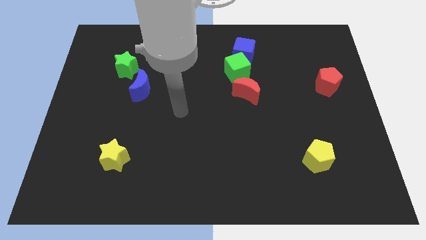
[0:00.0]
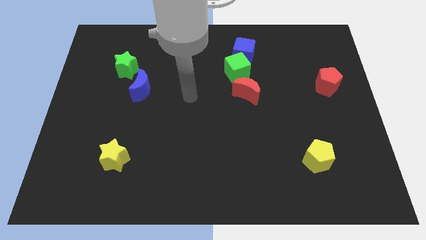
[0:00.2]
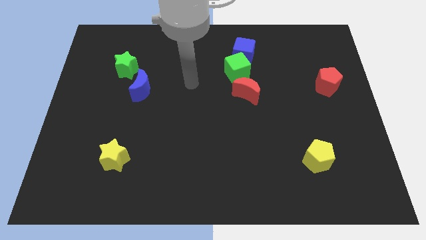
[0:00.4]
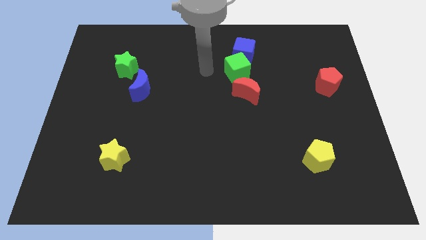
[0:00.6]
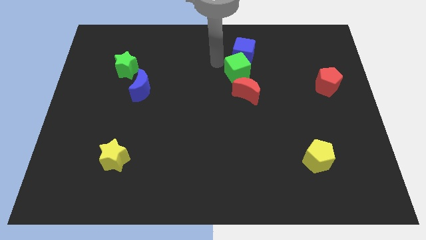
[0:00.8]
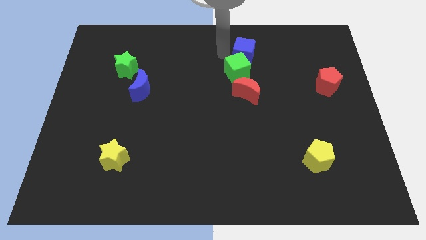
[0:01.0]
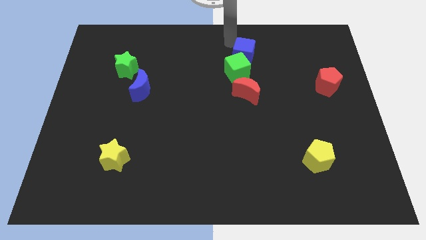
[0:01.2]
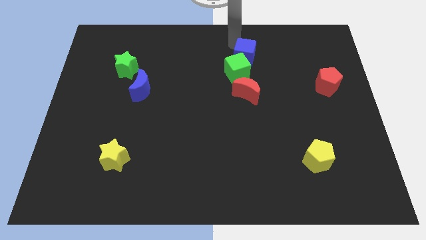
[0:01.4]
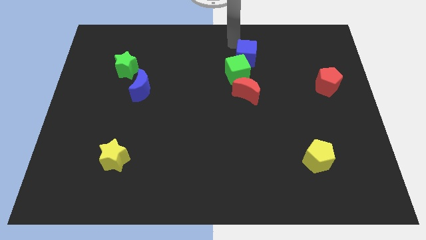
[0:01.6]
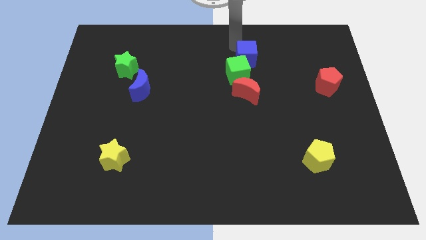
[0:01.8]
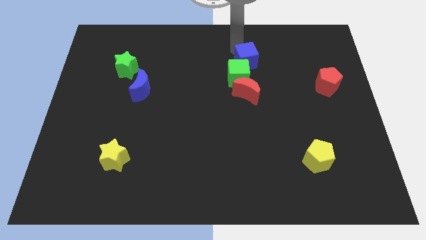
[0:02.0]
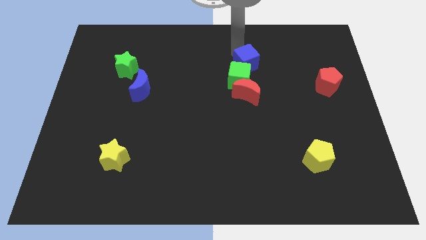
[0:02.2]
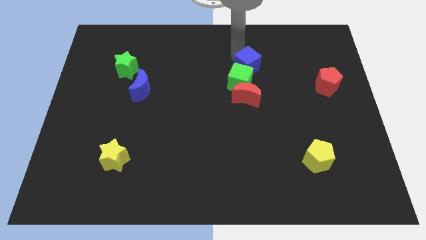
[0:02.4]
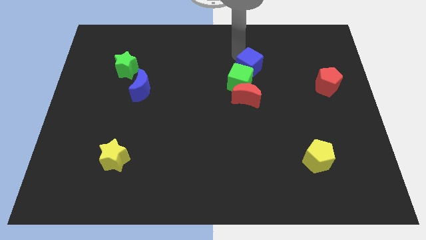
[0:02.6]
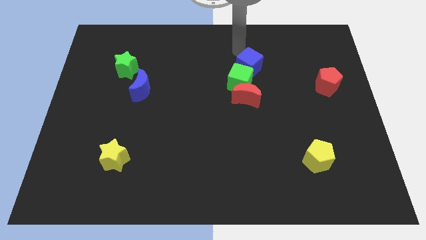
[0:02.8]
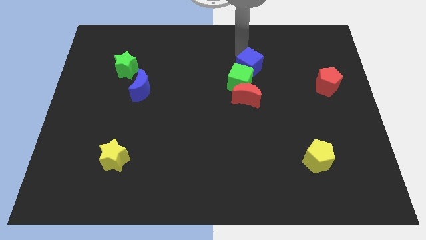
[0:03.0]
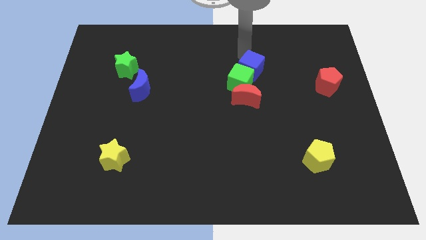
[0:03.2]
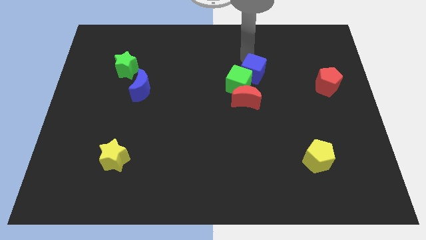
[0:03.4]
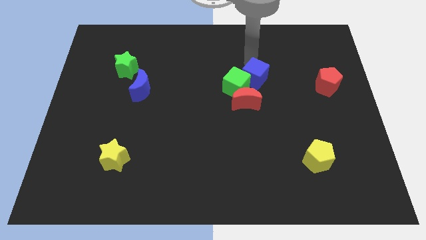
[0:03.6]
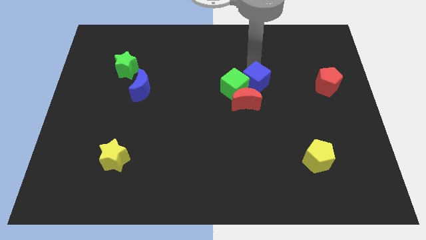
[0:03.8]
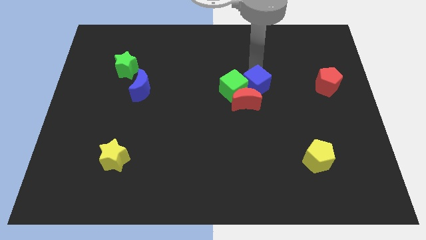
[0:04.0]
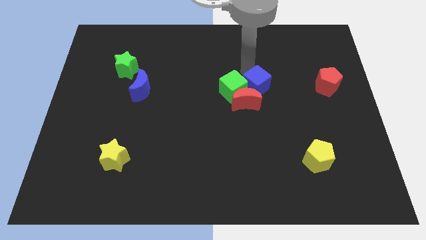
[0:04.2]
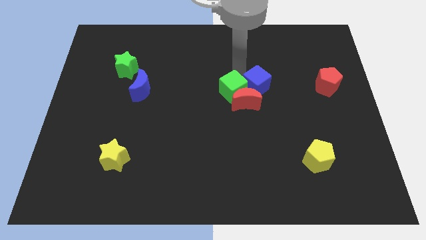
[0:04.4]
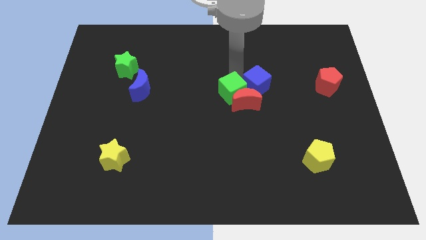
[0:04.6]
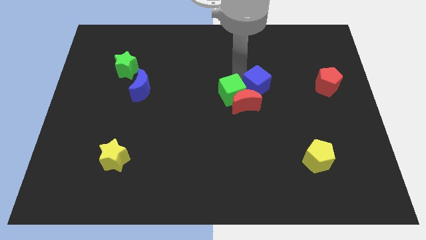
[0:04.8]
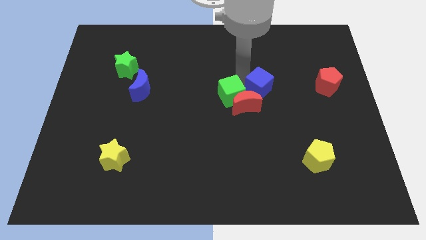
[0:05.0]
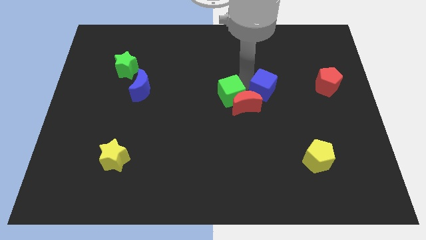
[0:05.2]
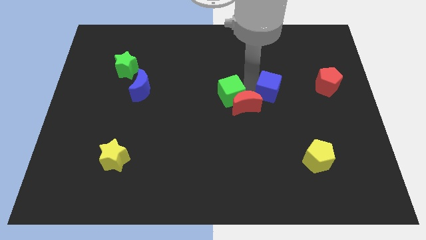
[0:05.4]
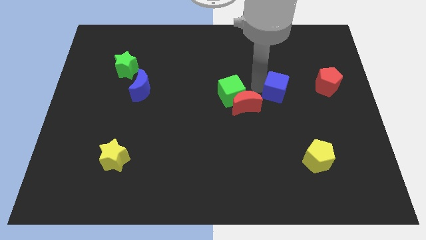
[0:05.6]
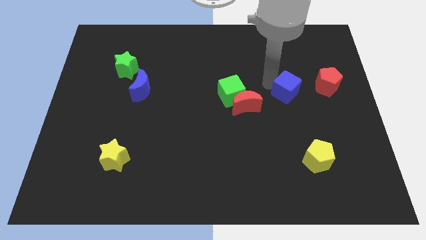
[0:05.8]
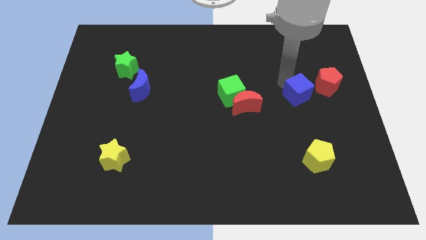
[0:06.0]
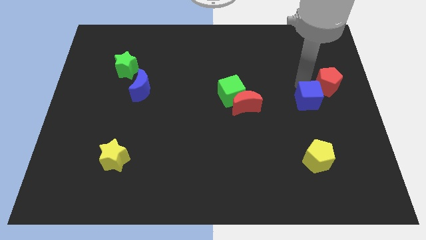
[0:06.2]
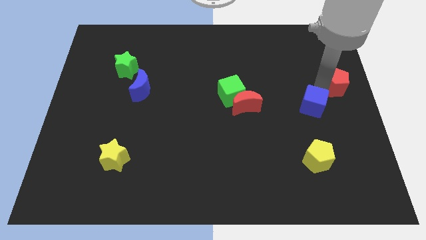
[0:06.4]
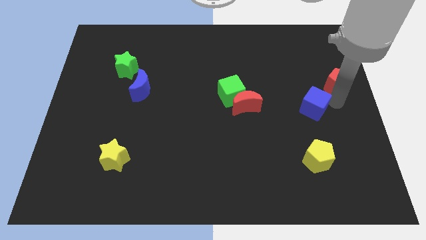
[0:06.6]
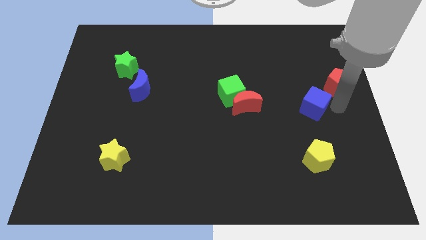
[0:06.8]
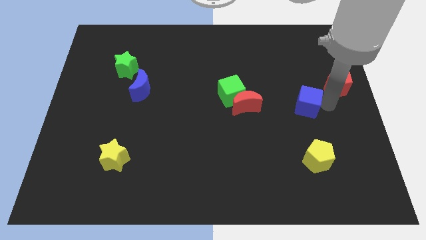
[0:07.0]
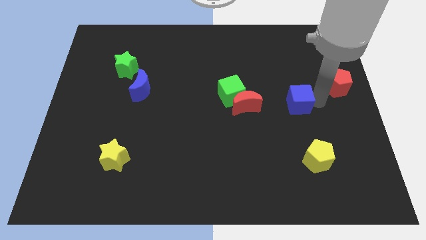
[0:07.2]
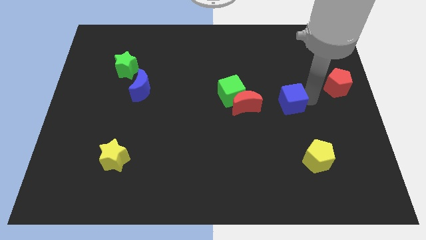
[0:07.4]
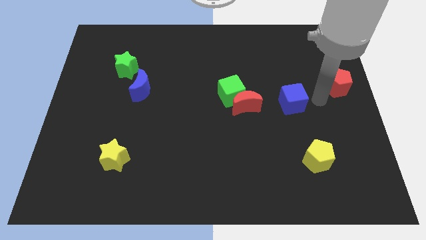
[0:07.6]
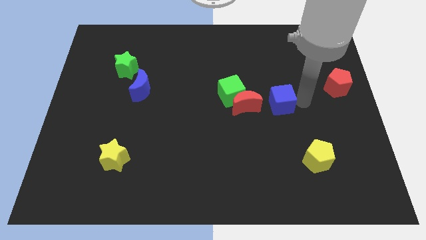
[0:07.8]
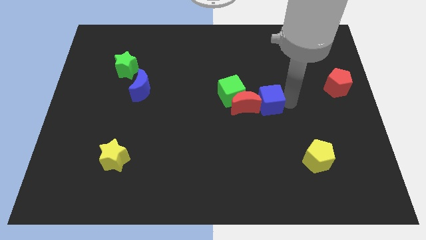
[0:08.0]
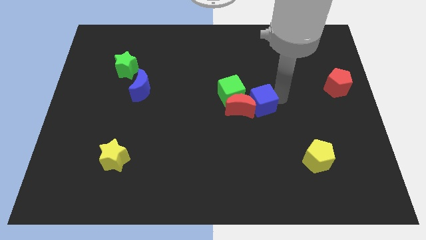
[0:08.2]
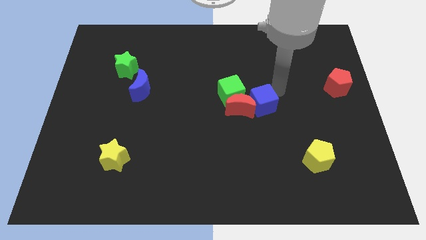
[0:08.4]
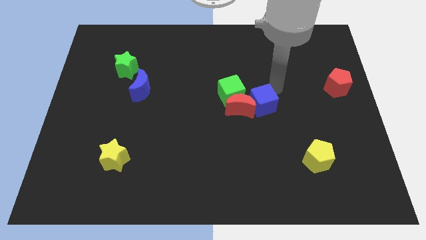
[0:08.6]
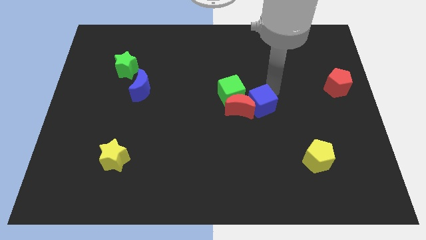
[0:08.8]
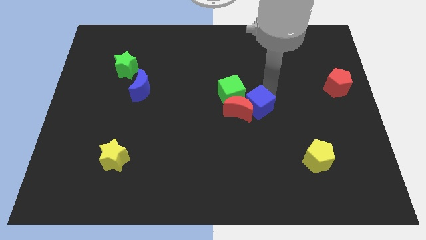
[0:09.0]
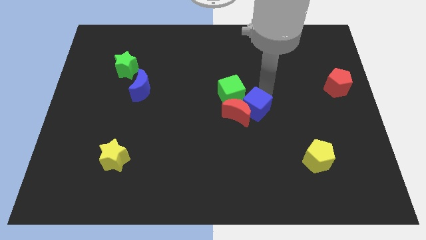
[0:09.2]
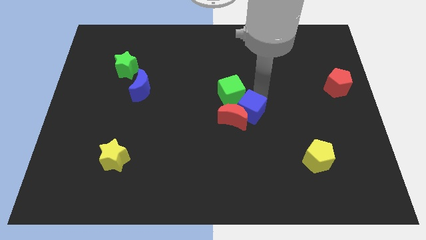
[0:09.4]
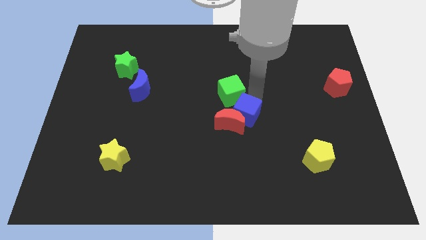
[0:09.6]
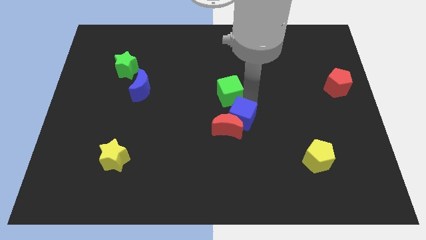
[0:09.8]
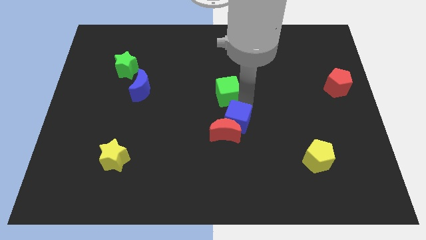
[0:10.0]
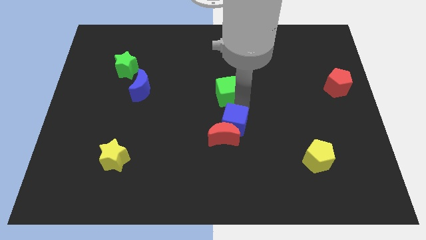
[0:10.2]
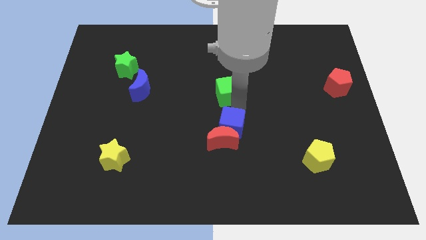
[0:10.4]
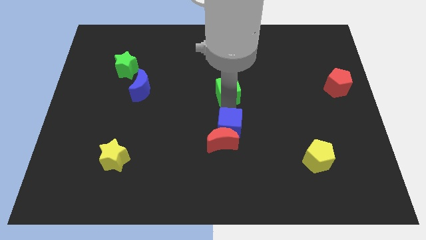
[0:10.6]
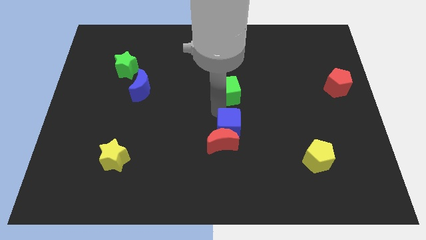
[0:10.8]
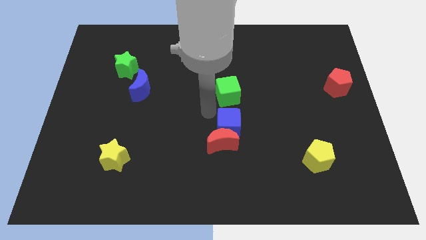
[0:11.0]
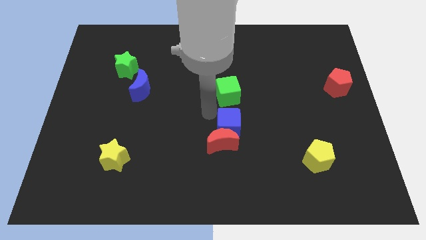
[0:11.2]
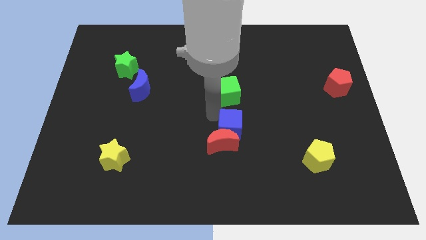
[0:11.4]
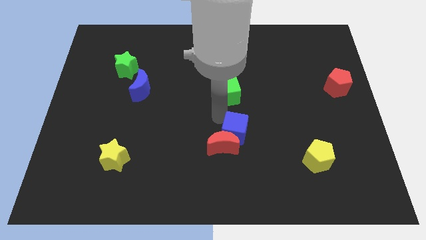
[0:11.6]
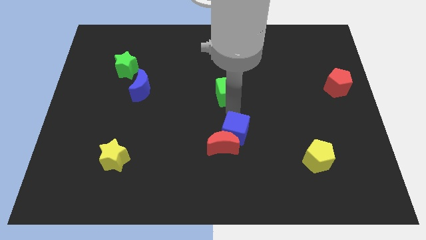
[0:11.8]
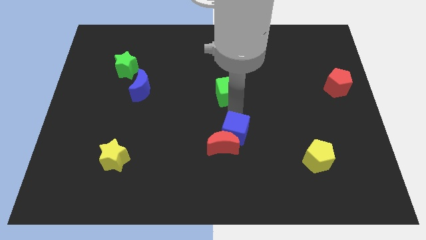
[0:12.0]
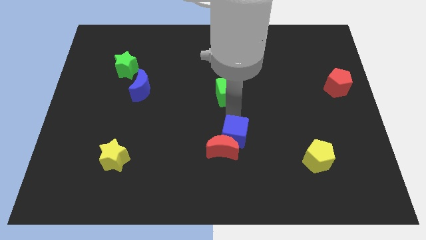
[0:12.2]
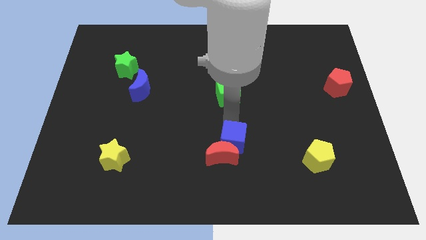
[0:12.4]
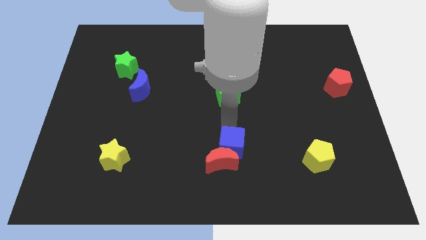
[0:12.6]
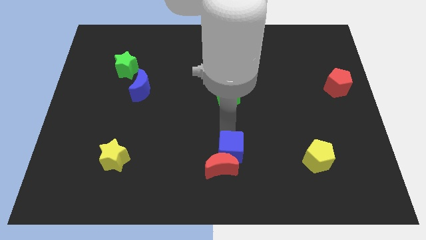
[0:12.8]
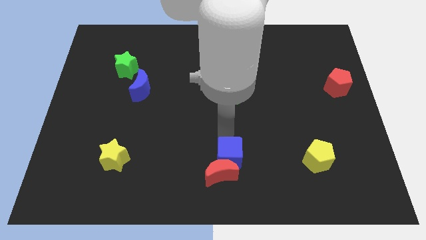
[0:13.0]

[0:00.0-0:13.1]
put the blue cube to the bottom
